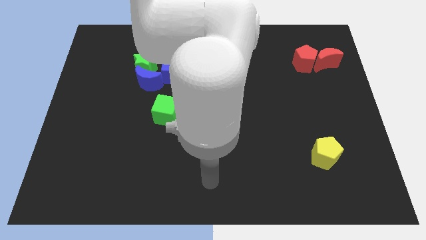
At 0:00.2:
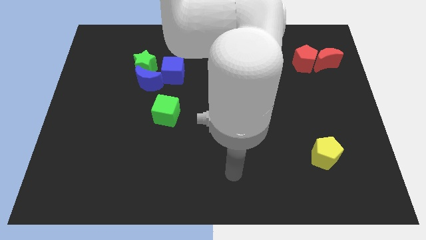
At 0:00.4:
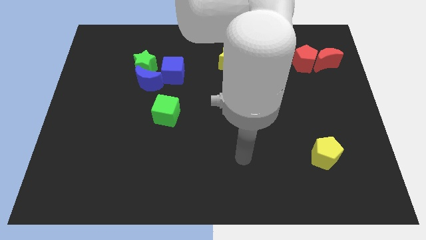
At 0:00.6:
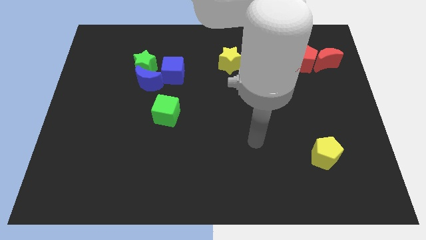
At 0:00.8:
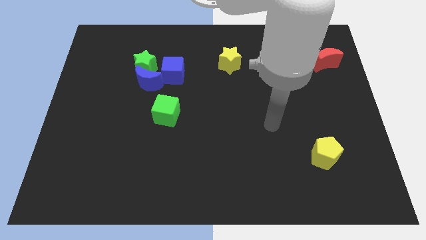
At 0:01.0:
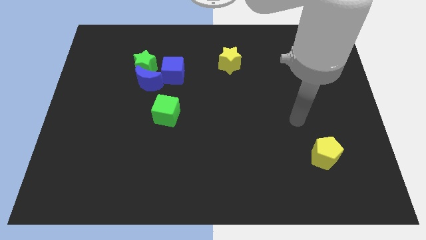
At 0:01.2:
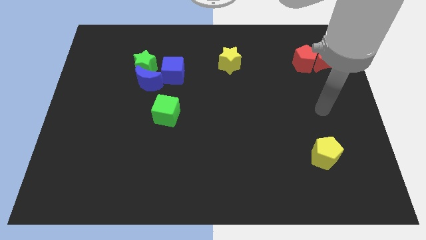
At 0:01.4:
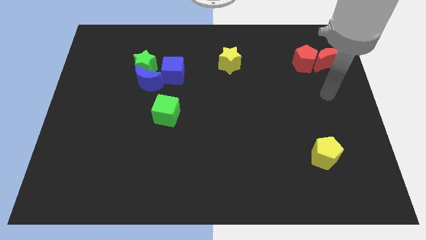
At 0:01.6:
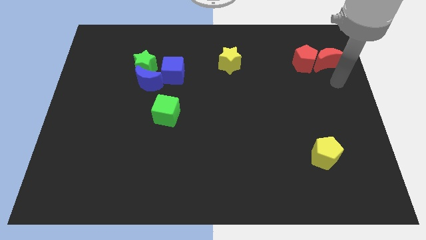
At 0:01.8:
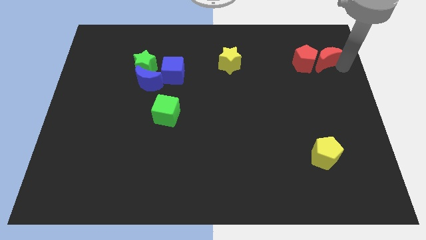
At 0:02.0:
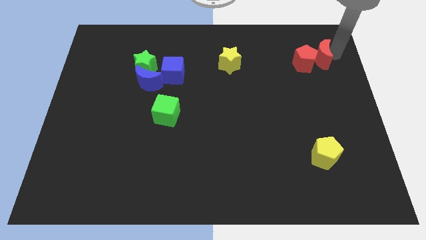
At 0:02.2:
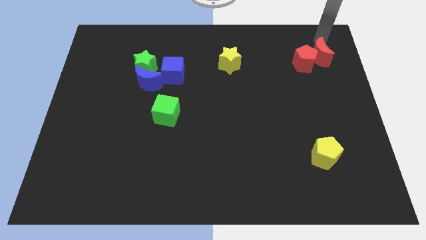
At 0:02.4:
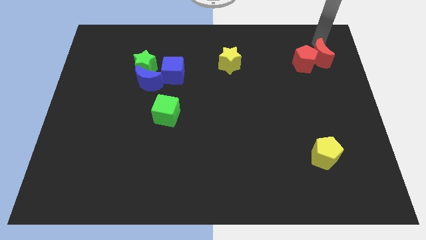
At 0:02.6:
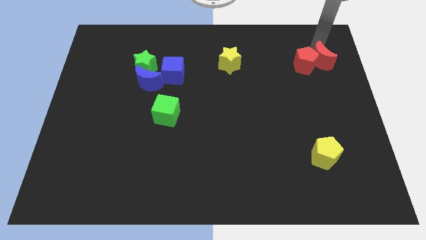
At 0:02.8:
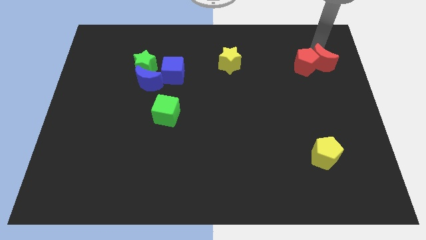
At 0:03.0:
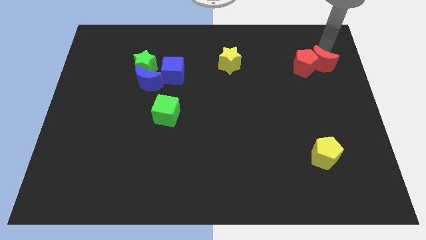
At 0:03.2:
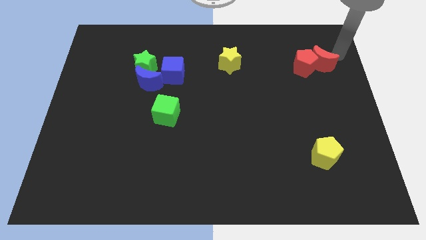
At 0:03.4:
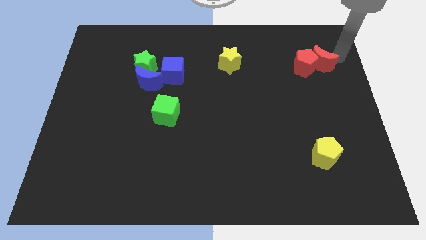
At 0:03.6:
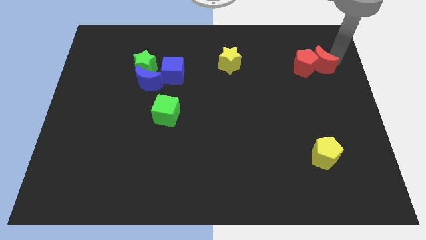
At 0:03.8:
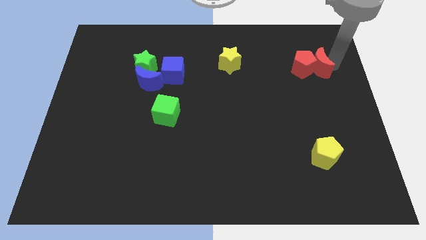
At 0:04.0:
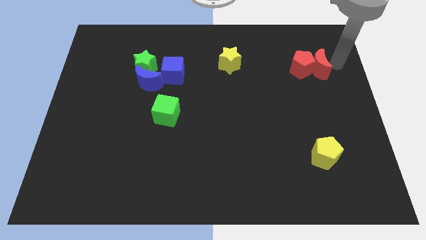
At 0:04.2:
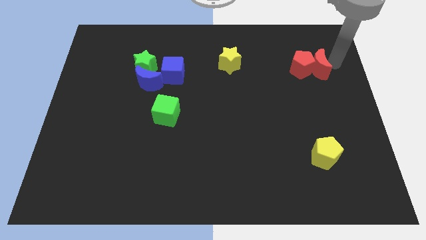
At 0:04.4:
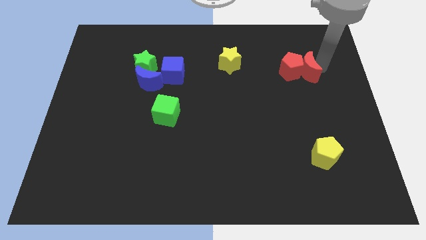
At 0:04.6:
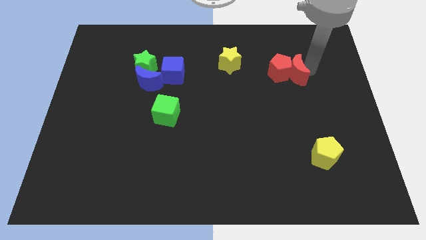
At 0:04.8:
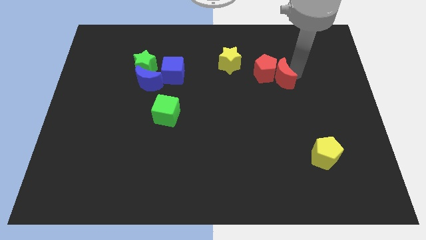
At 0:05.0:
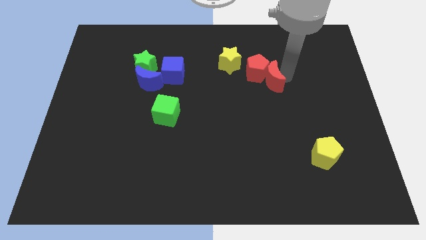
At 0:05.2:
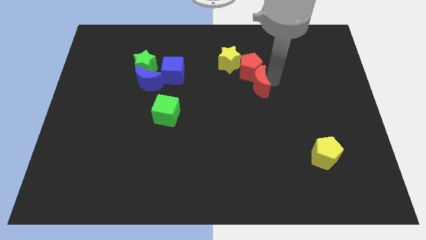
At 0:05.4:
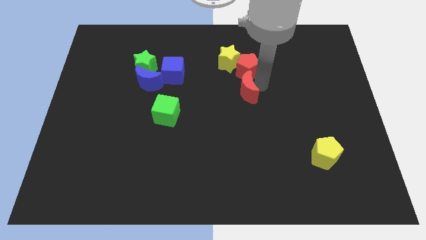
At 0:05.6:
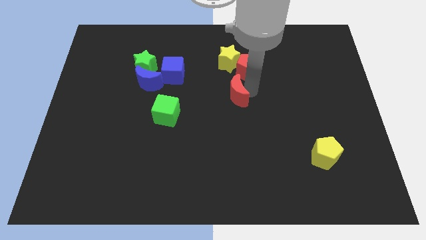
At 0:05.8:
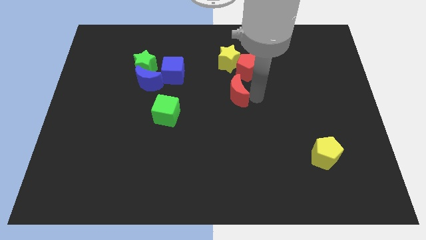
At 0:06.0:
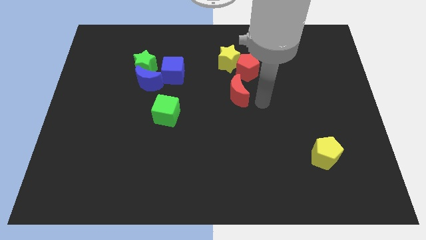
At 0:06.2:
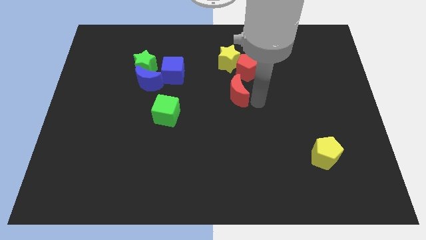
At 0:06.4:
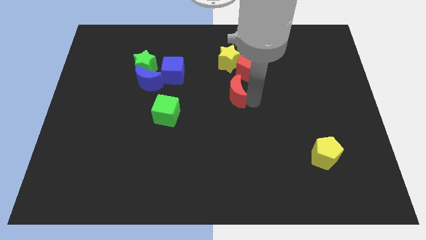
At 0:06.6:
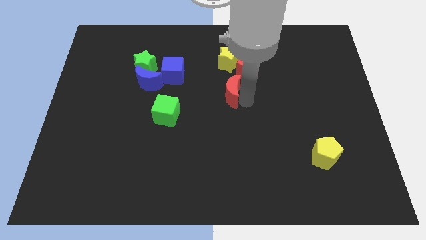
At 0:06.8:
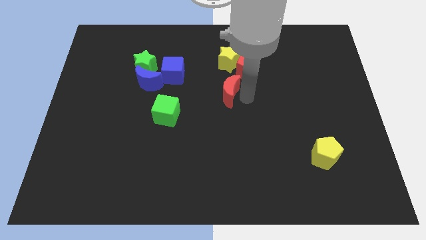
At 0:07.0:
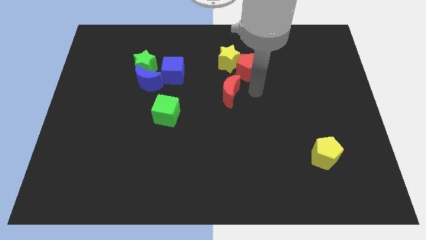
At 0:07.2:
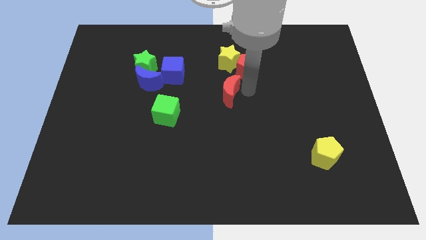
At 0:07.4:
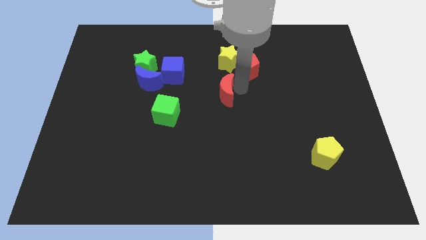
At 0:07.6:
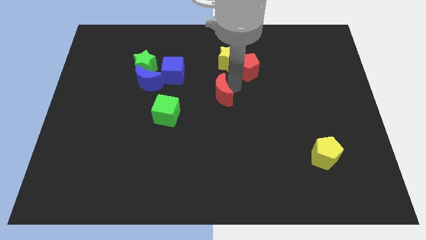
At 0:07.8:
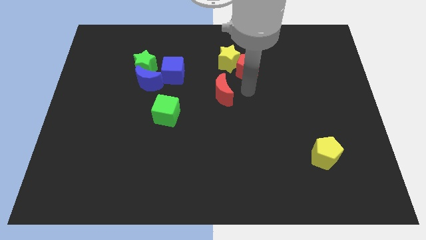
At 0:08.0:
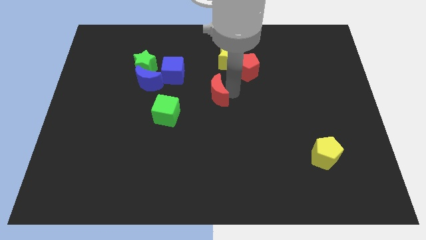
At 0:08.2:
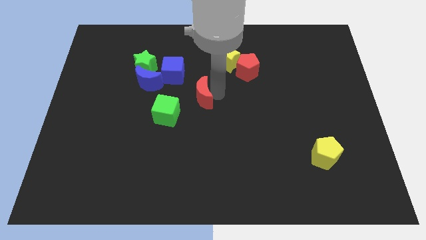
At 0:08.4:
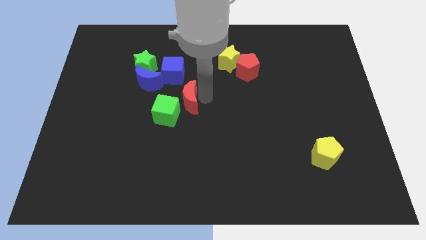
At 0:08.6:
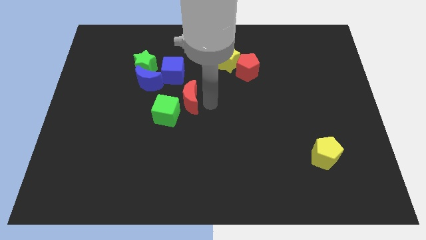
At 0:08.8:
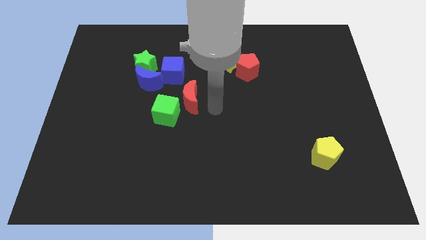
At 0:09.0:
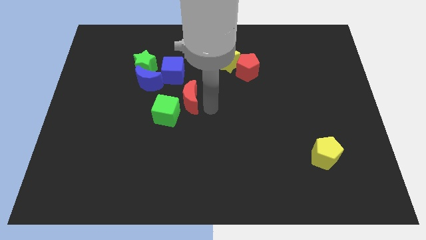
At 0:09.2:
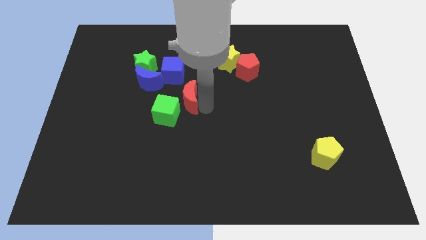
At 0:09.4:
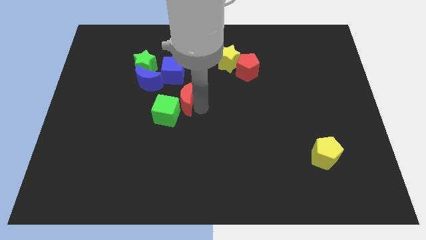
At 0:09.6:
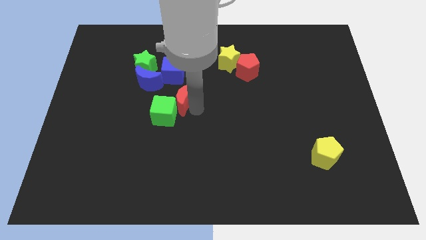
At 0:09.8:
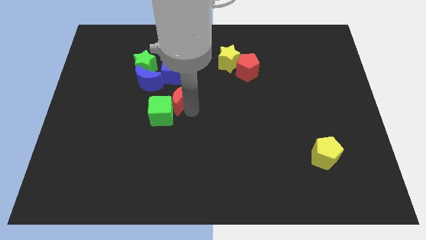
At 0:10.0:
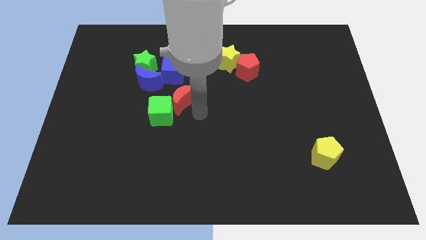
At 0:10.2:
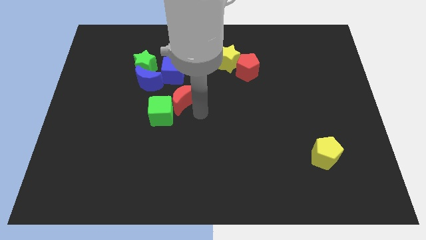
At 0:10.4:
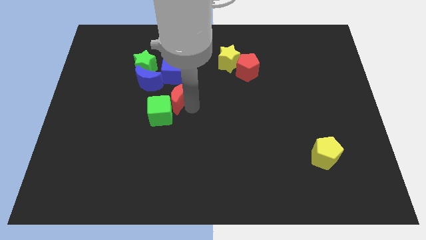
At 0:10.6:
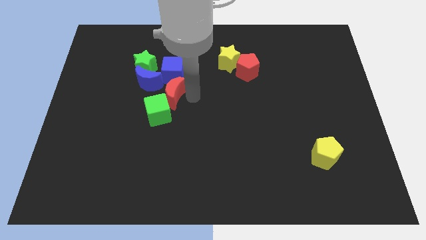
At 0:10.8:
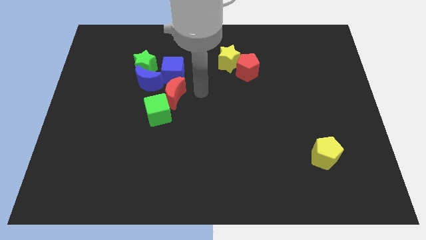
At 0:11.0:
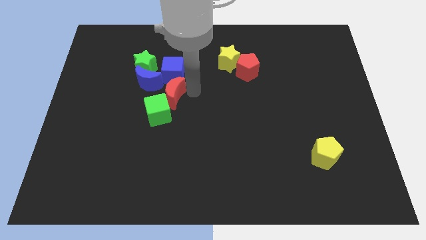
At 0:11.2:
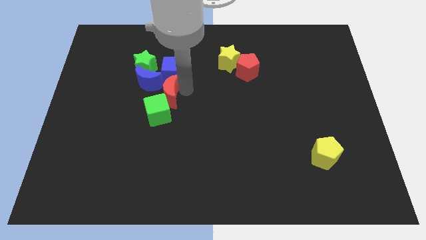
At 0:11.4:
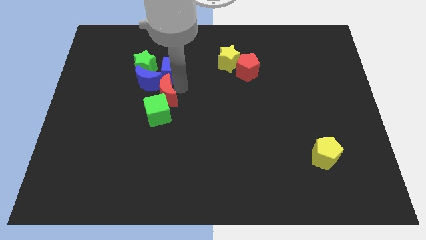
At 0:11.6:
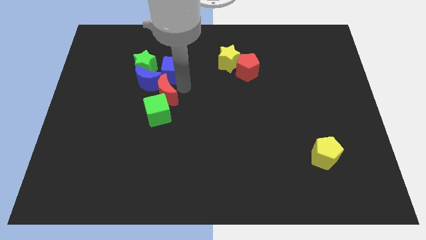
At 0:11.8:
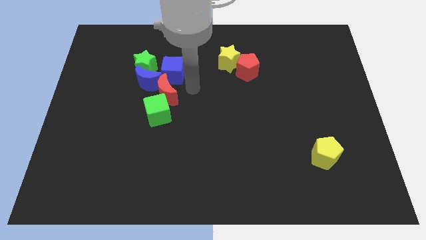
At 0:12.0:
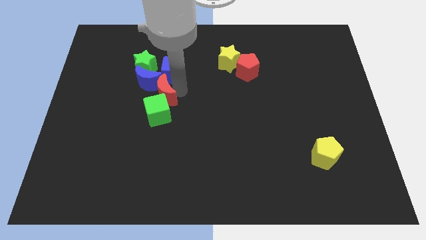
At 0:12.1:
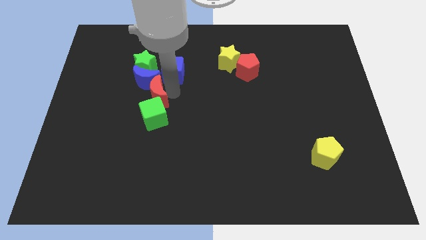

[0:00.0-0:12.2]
put the red moon below the green star

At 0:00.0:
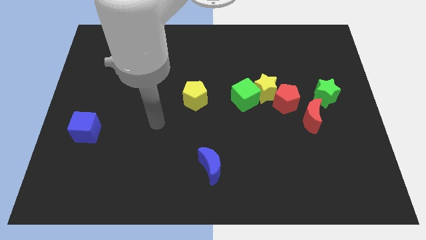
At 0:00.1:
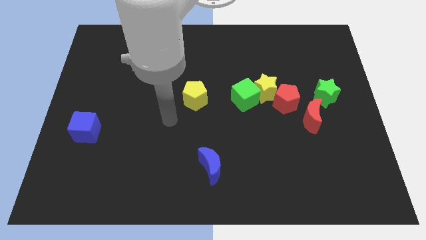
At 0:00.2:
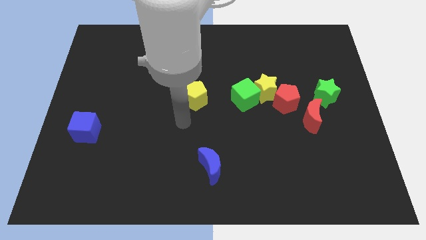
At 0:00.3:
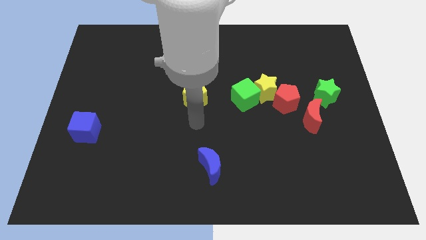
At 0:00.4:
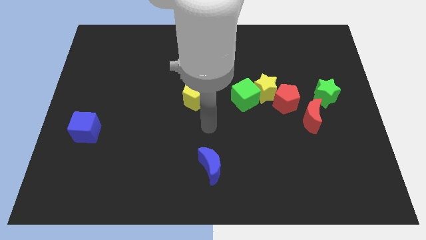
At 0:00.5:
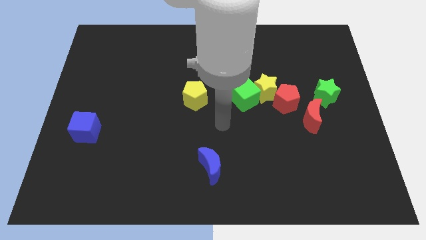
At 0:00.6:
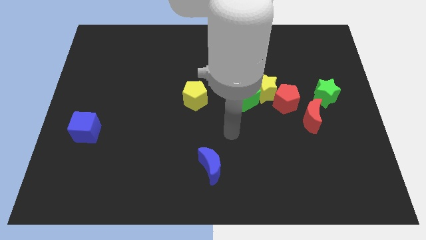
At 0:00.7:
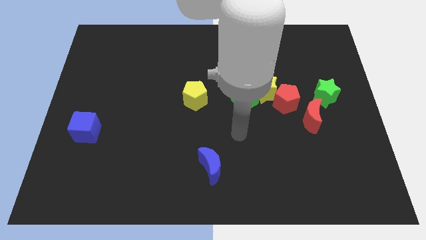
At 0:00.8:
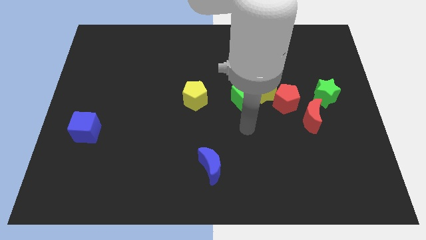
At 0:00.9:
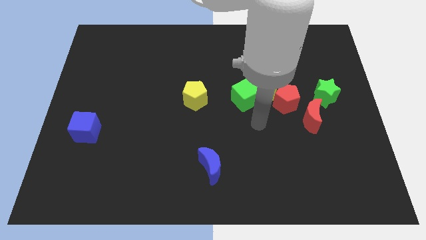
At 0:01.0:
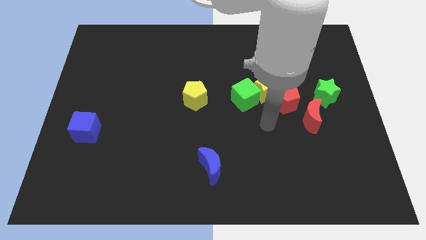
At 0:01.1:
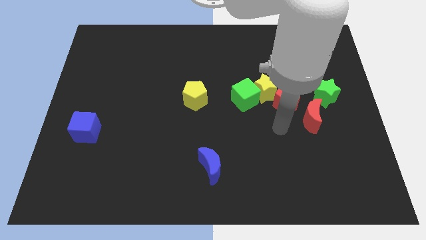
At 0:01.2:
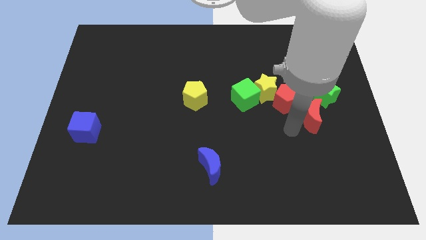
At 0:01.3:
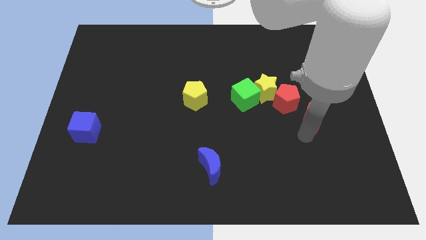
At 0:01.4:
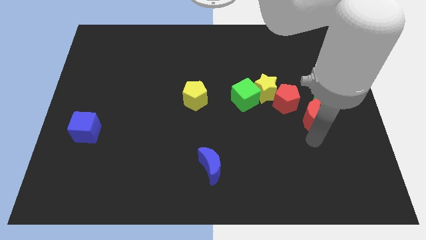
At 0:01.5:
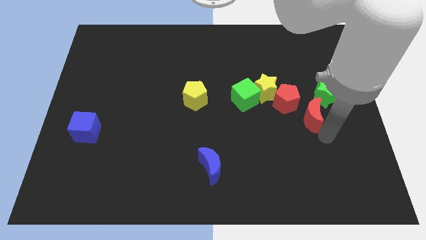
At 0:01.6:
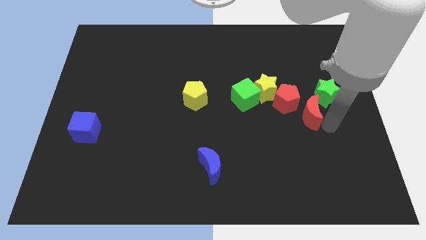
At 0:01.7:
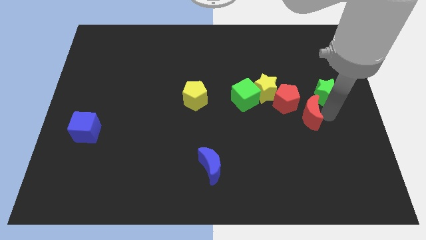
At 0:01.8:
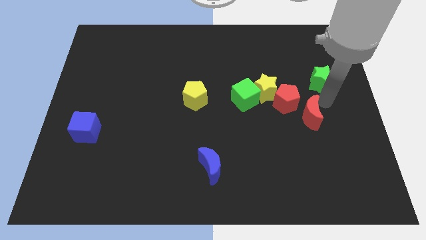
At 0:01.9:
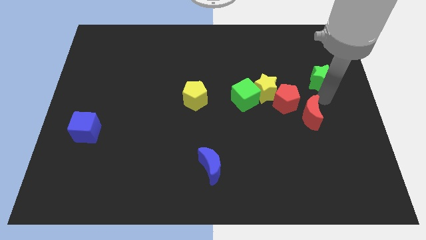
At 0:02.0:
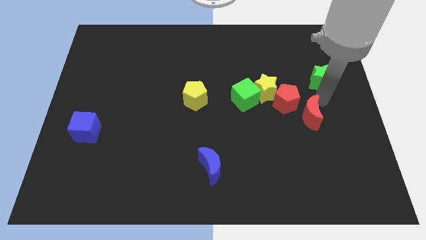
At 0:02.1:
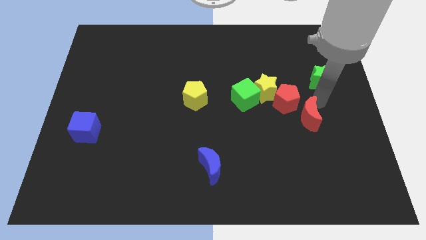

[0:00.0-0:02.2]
slide the red moon below the red pentagon

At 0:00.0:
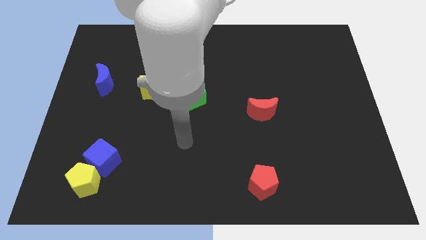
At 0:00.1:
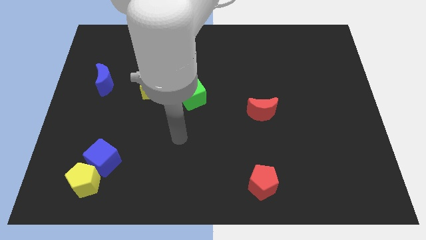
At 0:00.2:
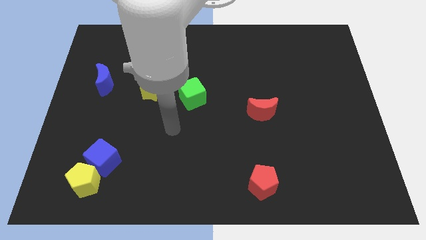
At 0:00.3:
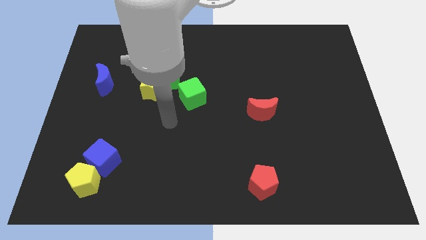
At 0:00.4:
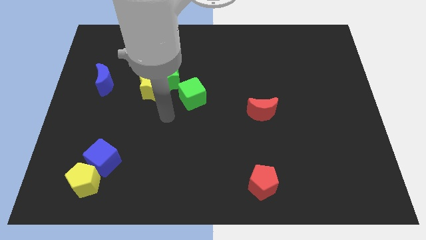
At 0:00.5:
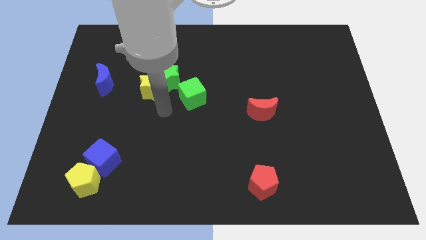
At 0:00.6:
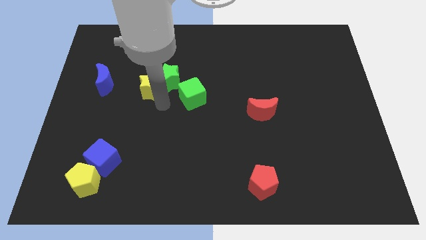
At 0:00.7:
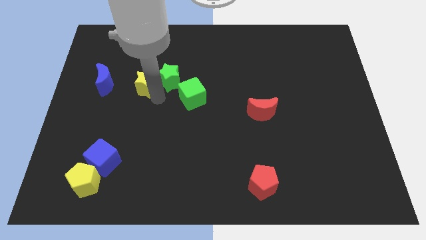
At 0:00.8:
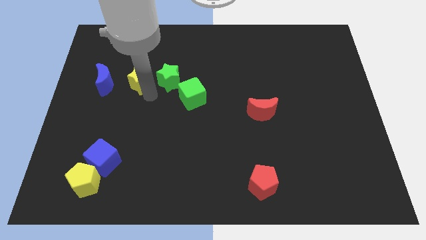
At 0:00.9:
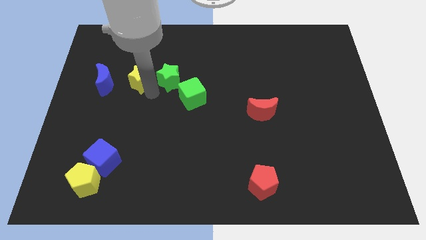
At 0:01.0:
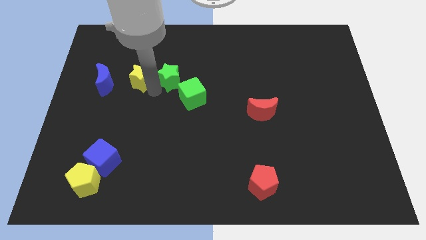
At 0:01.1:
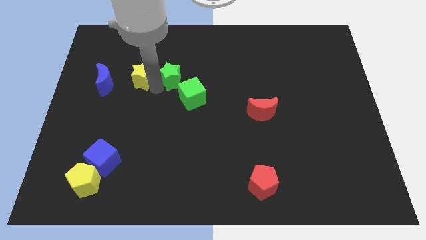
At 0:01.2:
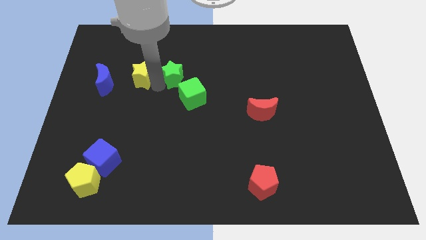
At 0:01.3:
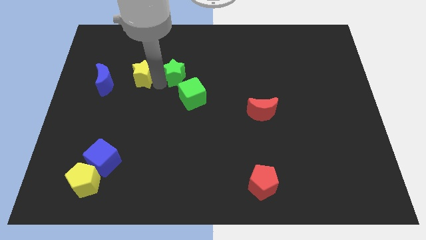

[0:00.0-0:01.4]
slide the green star to the top of the green cube